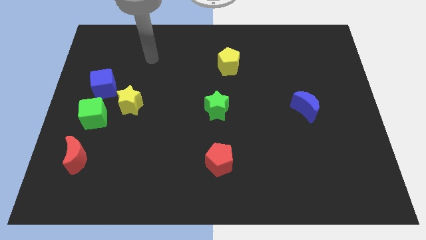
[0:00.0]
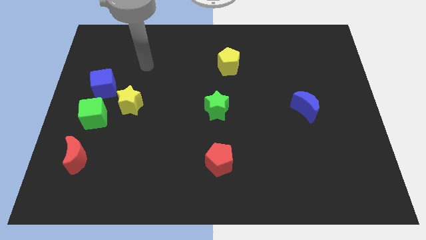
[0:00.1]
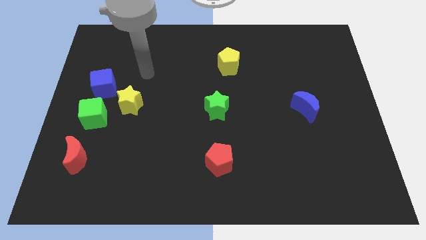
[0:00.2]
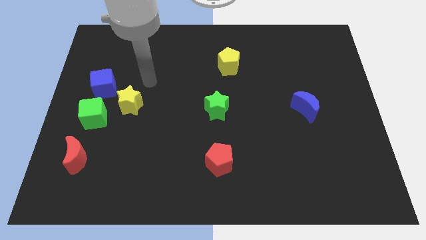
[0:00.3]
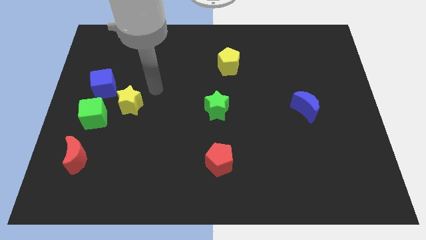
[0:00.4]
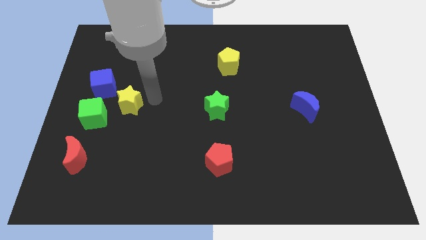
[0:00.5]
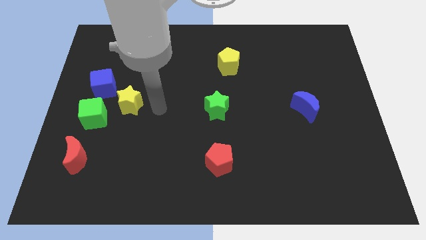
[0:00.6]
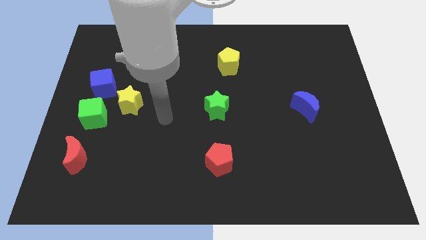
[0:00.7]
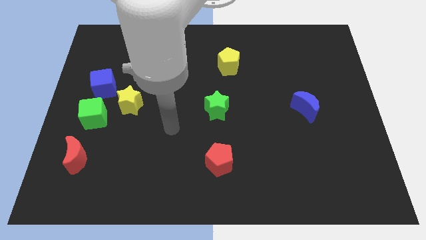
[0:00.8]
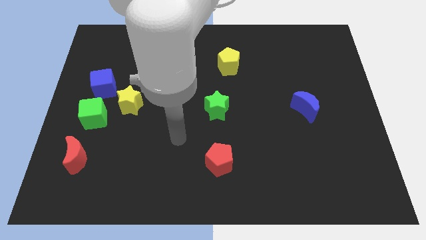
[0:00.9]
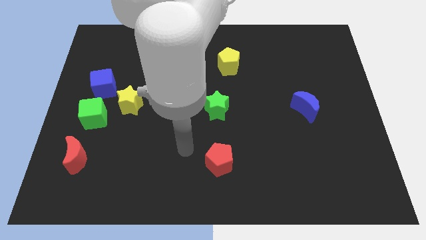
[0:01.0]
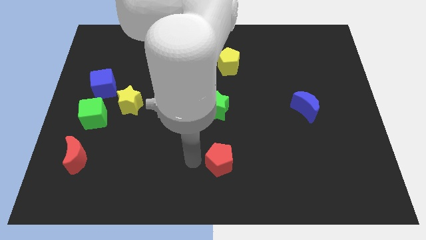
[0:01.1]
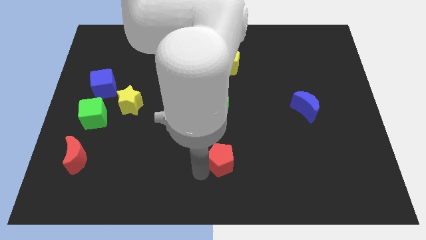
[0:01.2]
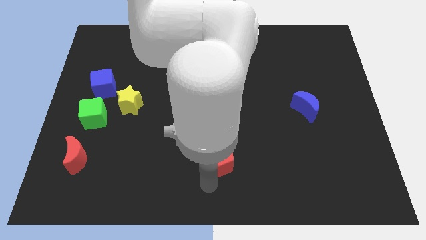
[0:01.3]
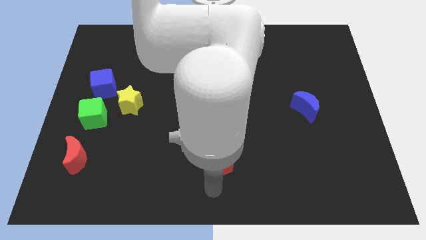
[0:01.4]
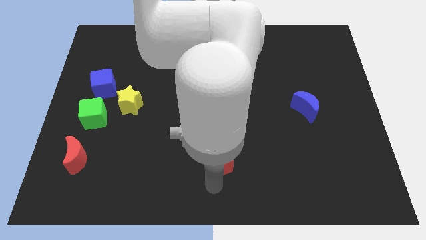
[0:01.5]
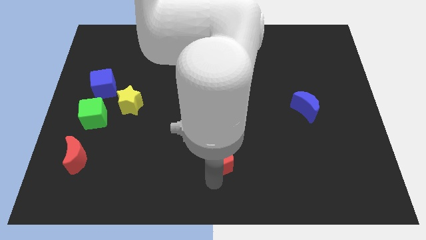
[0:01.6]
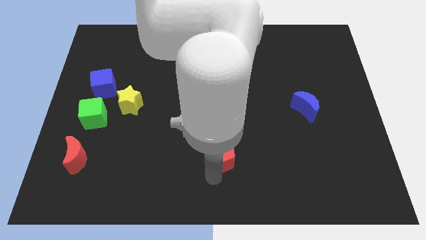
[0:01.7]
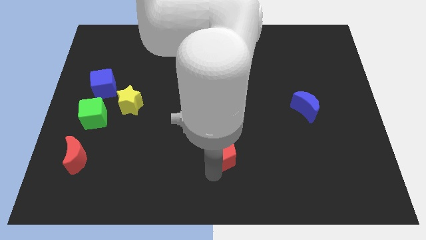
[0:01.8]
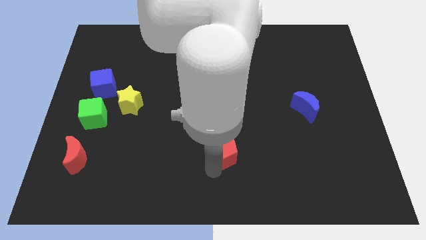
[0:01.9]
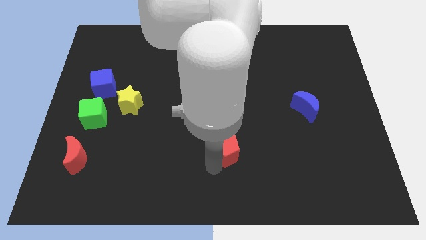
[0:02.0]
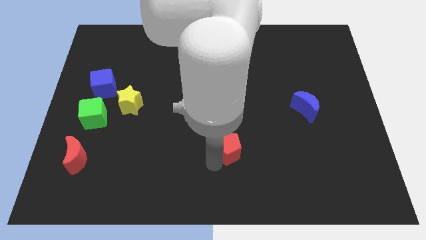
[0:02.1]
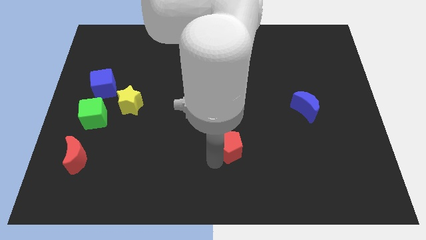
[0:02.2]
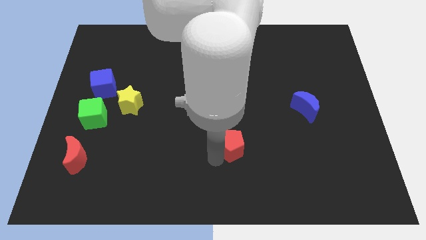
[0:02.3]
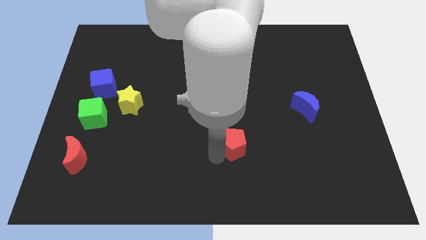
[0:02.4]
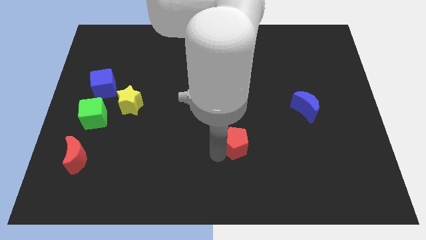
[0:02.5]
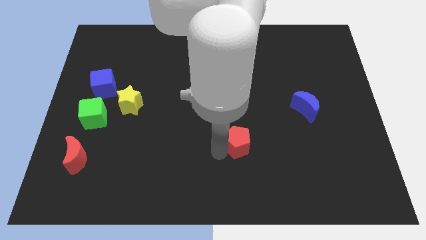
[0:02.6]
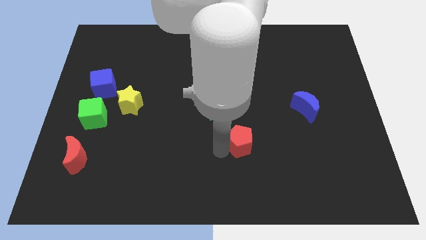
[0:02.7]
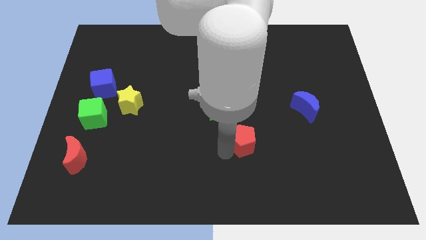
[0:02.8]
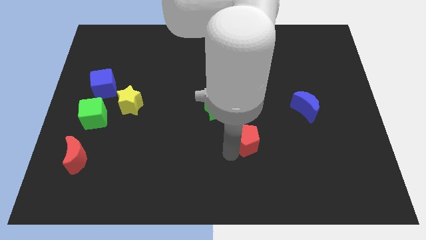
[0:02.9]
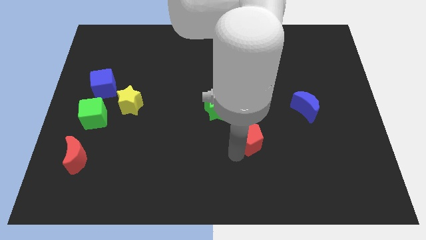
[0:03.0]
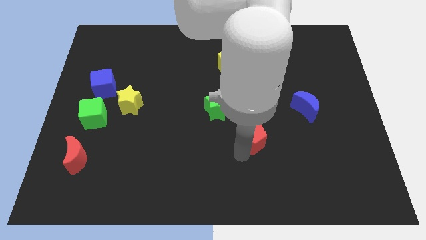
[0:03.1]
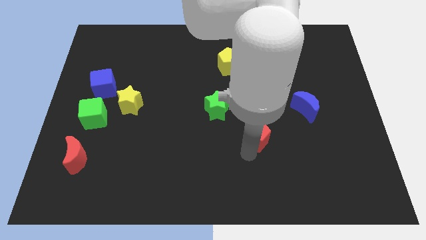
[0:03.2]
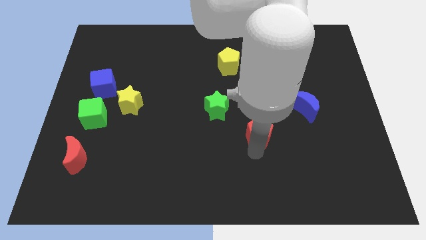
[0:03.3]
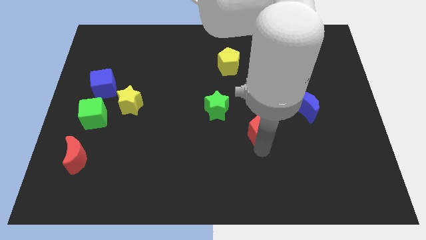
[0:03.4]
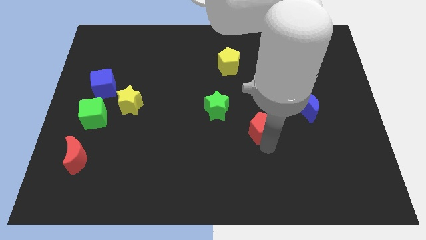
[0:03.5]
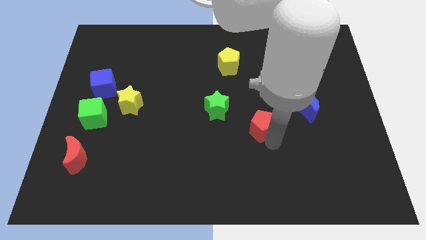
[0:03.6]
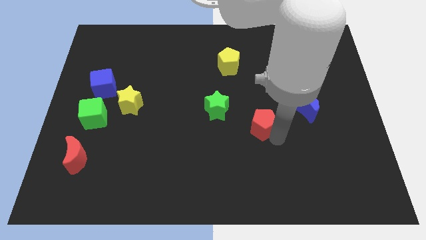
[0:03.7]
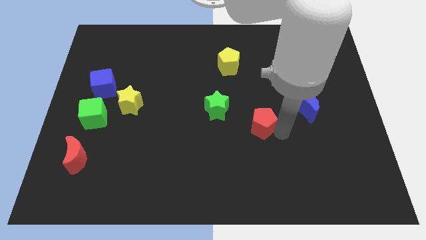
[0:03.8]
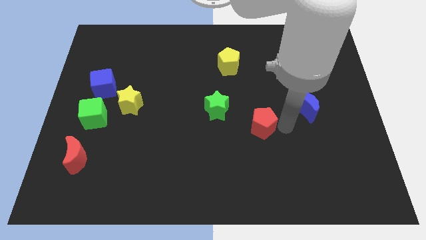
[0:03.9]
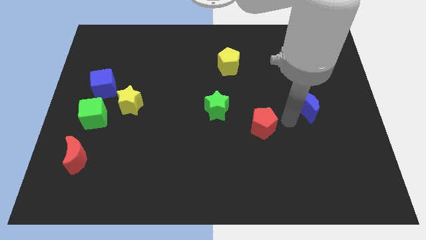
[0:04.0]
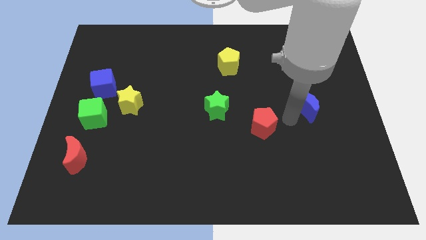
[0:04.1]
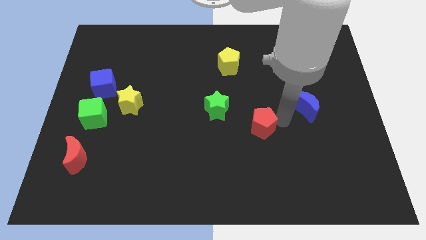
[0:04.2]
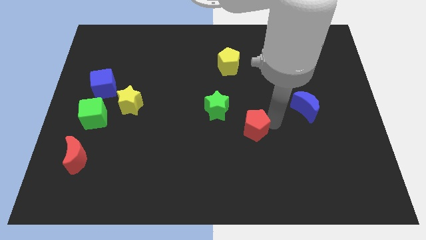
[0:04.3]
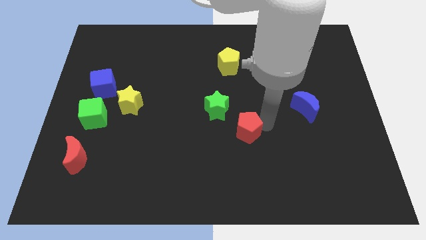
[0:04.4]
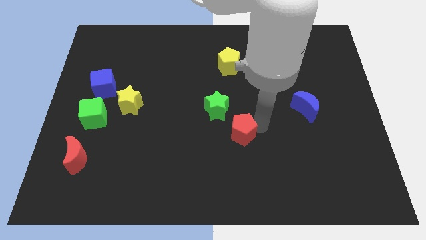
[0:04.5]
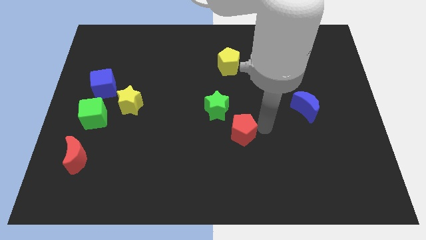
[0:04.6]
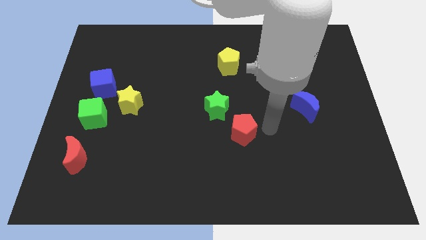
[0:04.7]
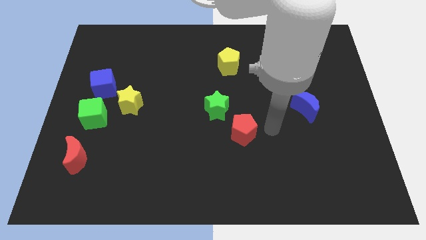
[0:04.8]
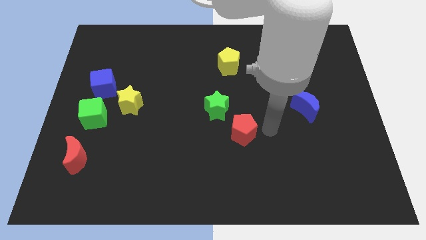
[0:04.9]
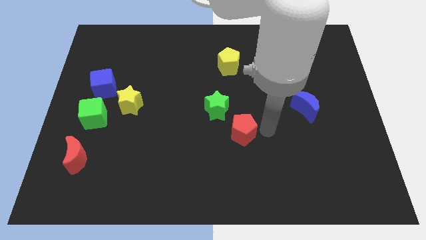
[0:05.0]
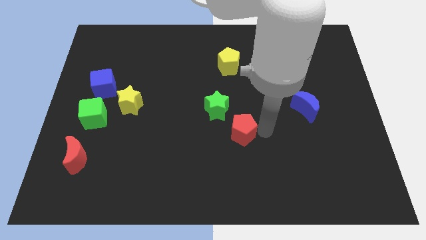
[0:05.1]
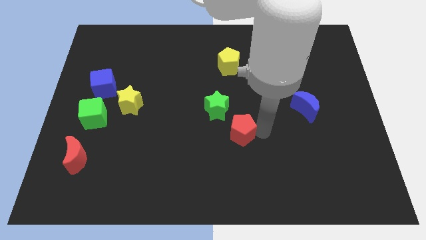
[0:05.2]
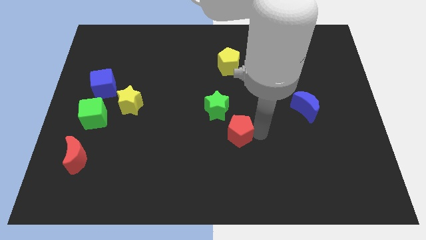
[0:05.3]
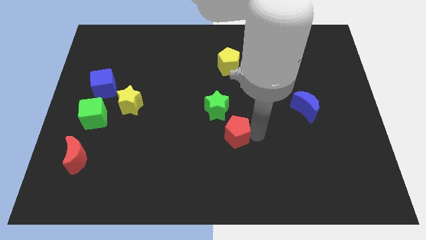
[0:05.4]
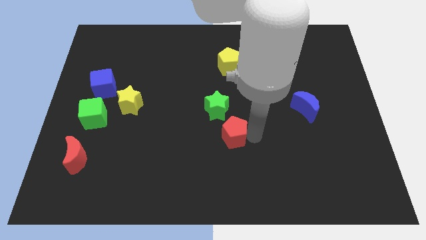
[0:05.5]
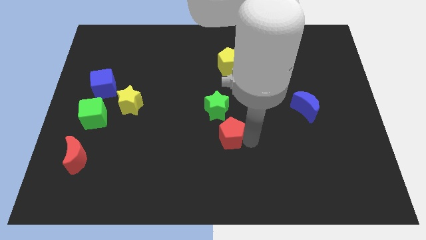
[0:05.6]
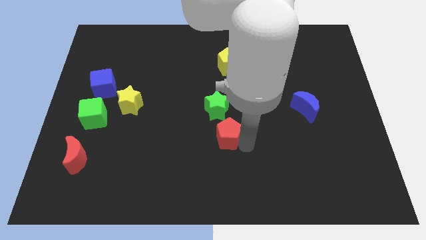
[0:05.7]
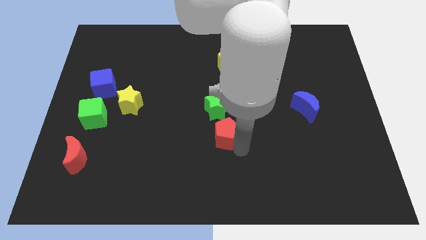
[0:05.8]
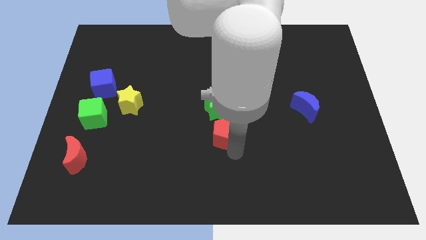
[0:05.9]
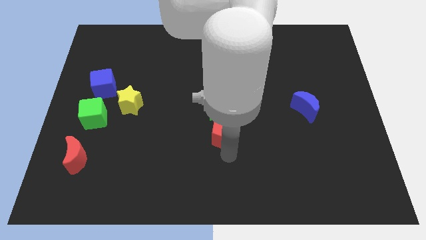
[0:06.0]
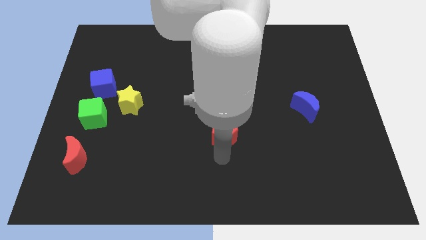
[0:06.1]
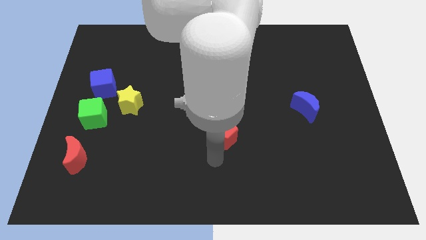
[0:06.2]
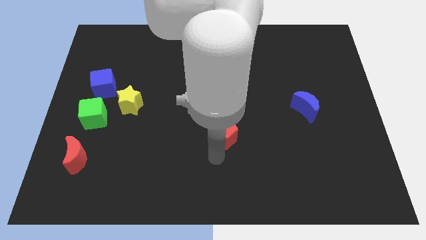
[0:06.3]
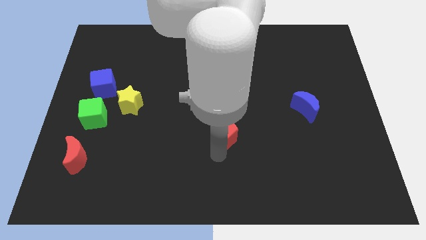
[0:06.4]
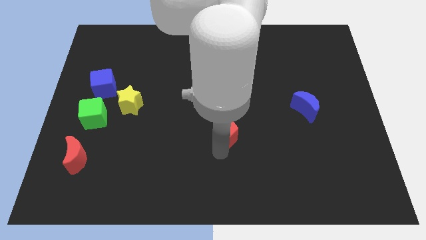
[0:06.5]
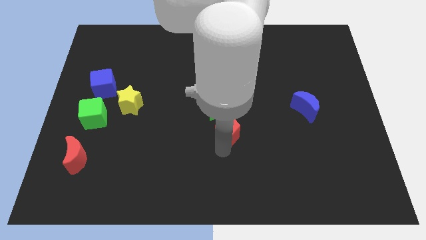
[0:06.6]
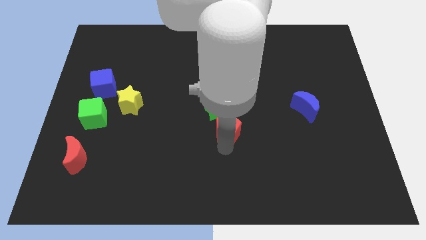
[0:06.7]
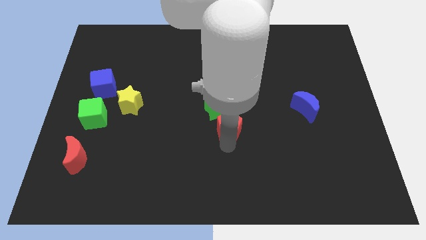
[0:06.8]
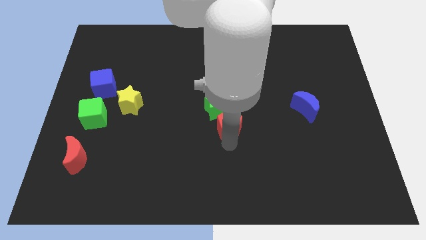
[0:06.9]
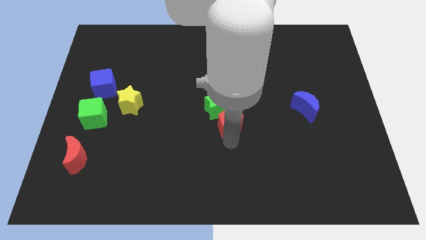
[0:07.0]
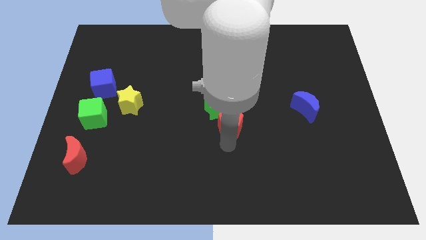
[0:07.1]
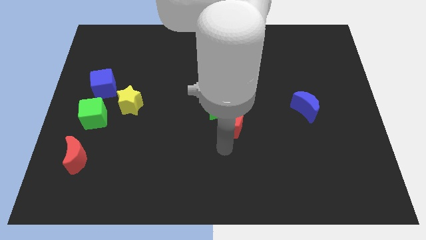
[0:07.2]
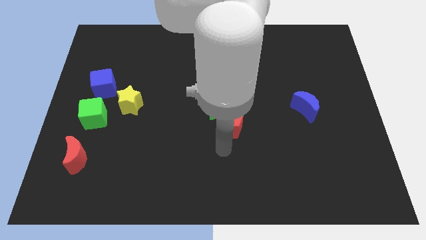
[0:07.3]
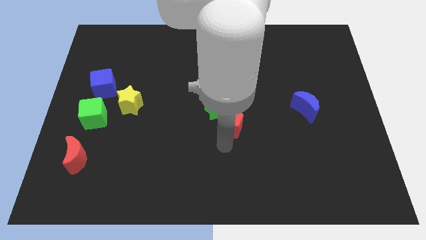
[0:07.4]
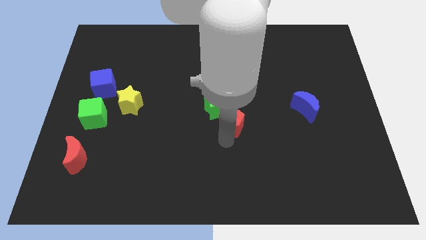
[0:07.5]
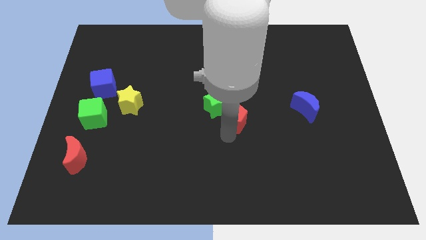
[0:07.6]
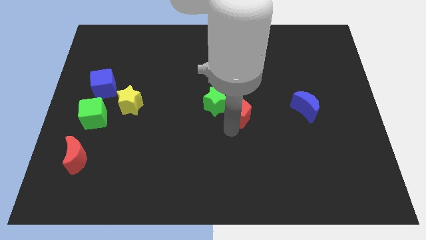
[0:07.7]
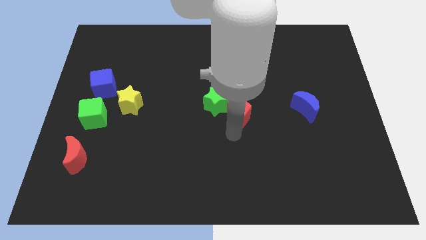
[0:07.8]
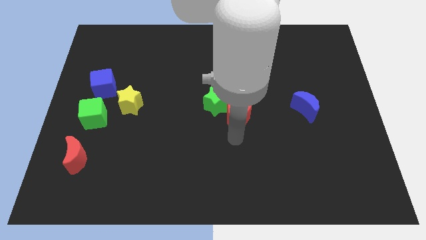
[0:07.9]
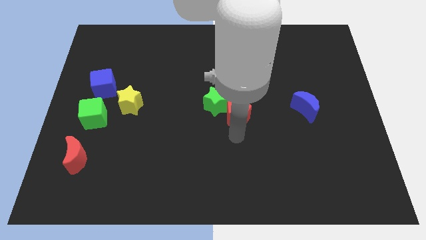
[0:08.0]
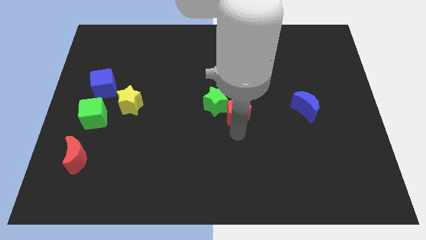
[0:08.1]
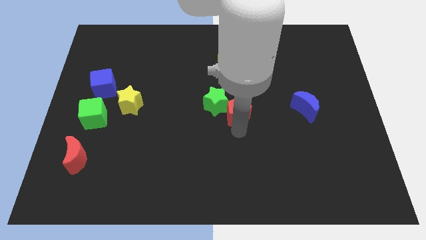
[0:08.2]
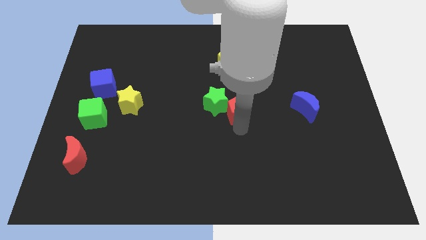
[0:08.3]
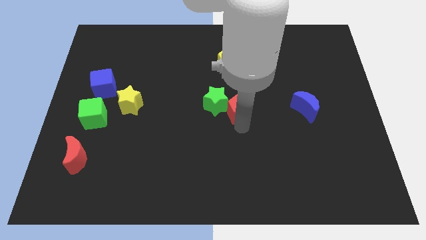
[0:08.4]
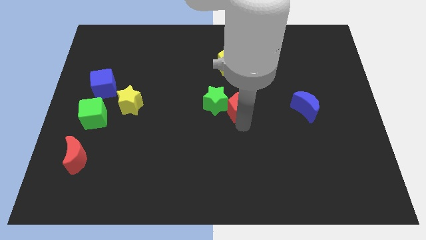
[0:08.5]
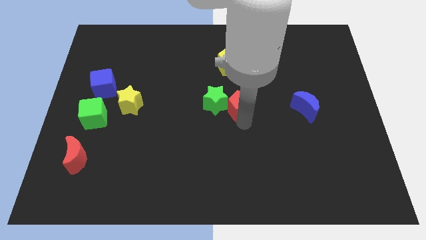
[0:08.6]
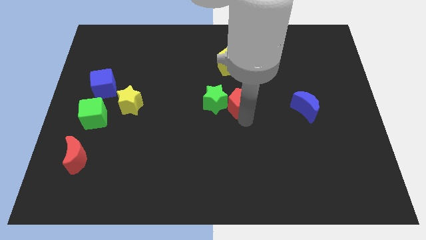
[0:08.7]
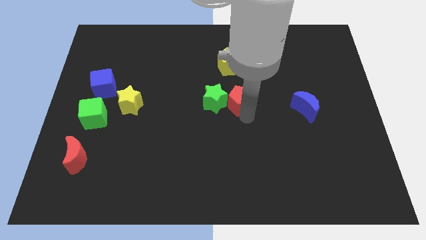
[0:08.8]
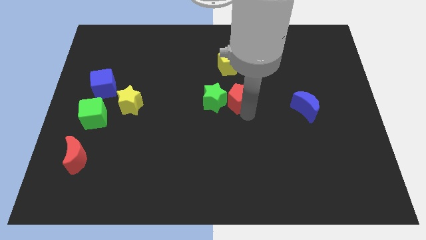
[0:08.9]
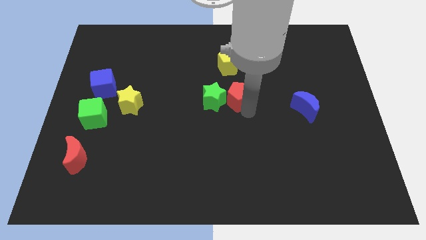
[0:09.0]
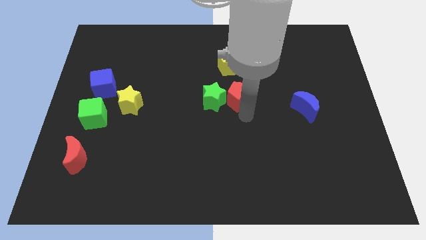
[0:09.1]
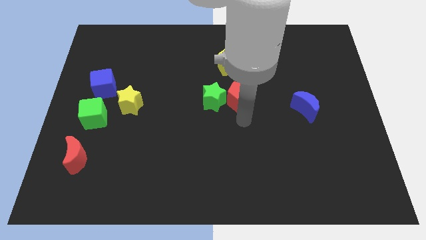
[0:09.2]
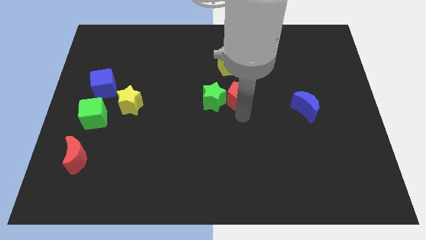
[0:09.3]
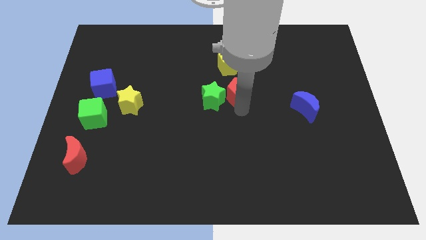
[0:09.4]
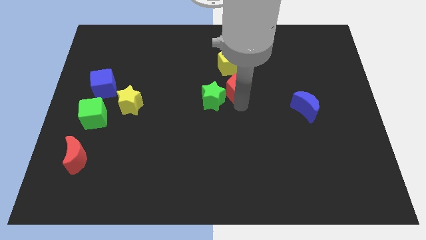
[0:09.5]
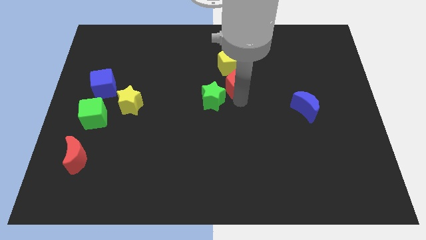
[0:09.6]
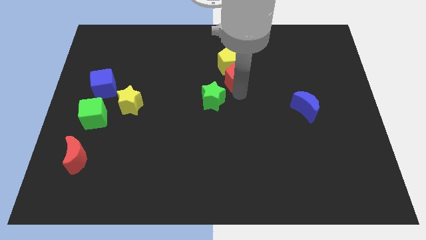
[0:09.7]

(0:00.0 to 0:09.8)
push the red pentagon next to the yellow pentagon
